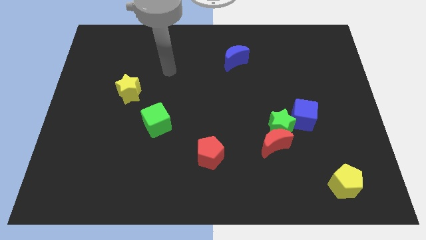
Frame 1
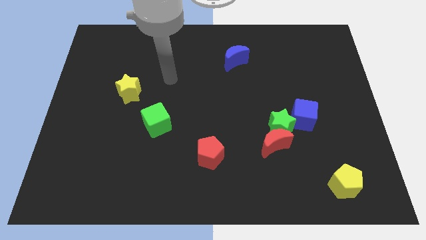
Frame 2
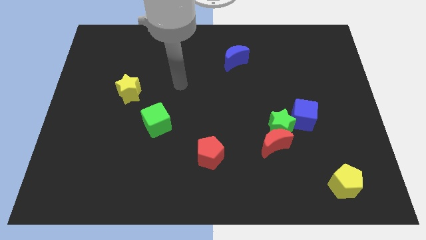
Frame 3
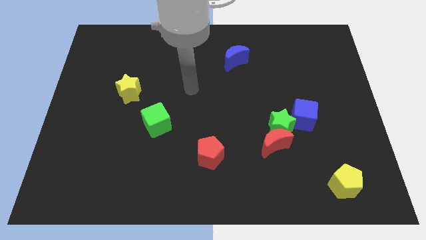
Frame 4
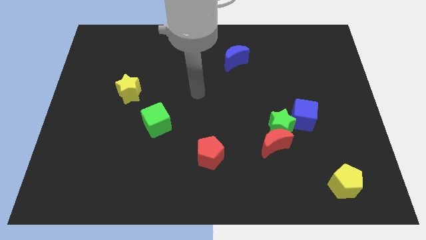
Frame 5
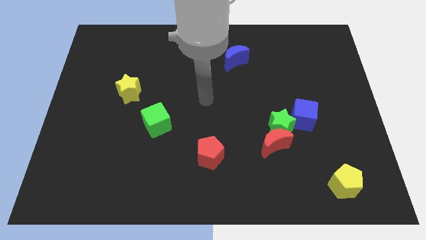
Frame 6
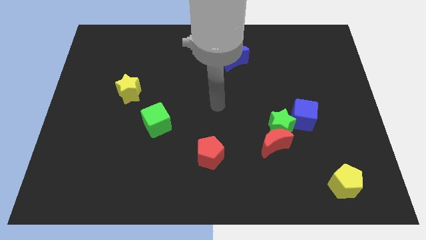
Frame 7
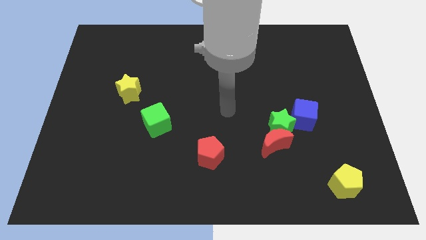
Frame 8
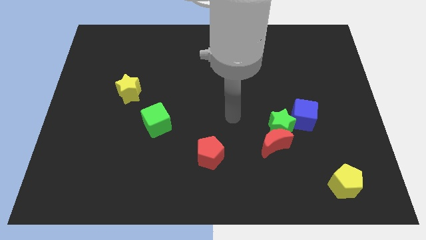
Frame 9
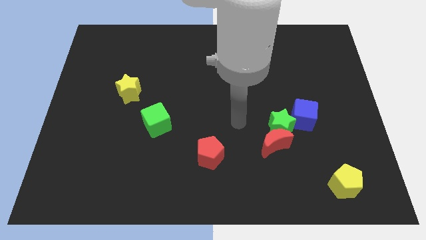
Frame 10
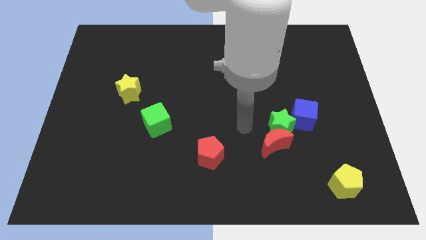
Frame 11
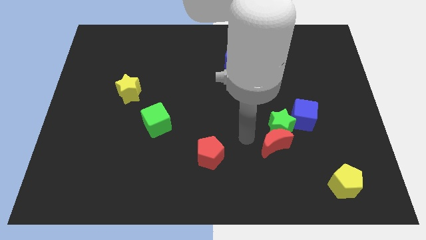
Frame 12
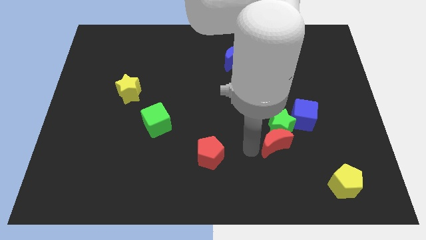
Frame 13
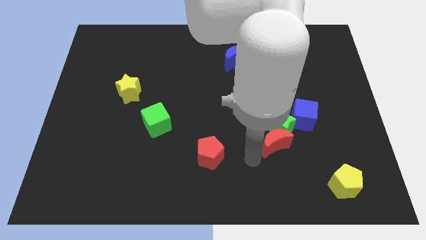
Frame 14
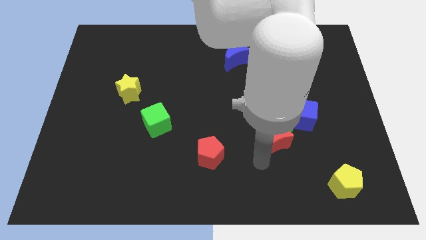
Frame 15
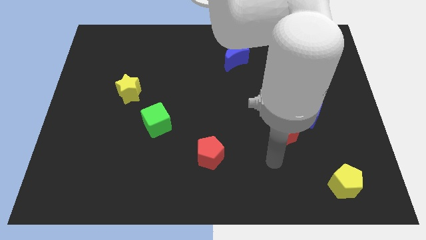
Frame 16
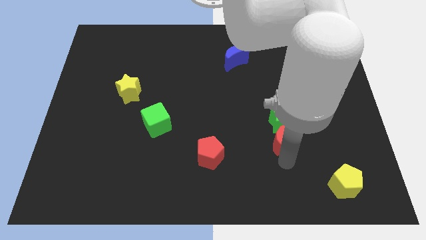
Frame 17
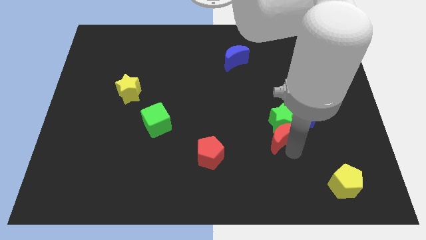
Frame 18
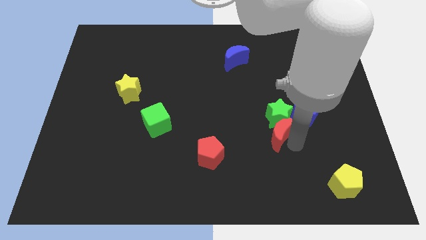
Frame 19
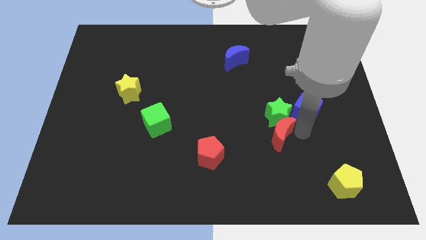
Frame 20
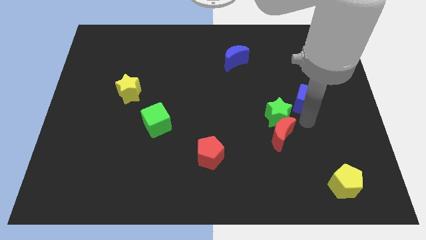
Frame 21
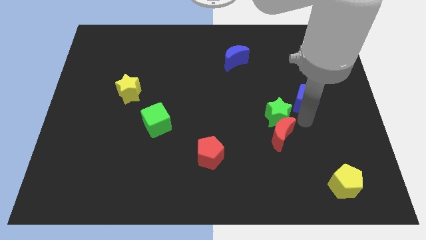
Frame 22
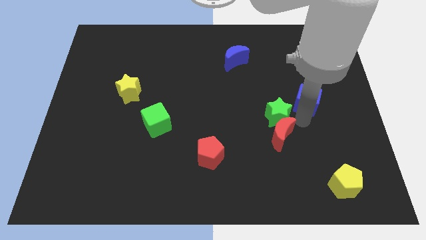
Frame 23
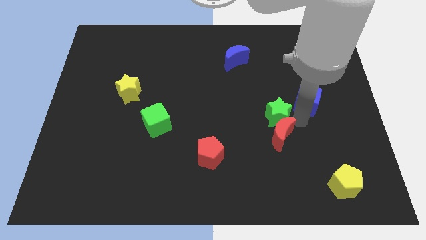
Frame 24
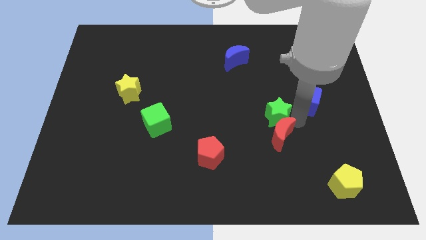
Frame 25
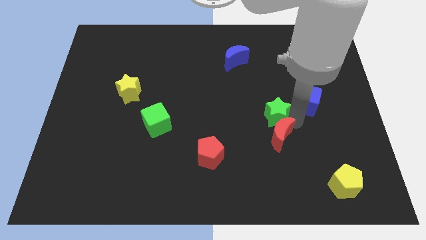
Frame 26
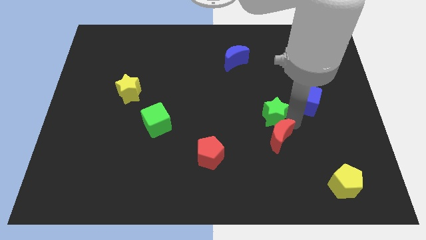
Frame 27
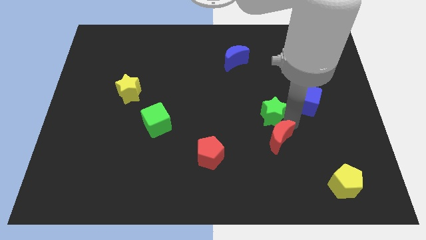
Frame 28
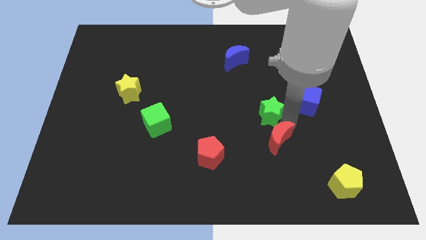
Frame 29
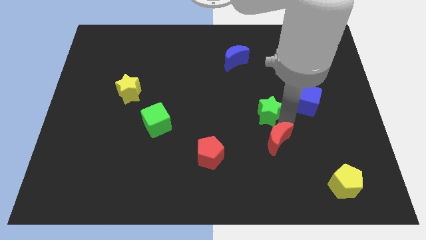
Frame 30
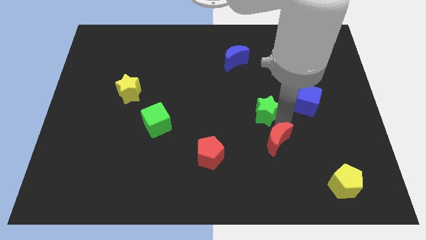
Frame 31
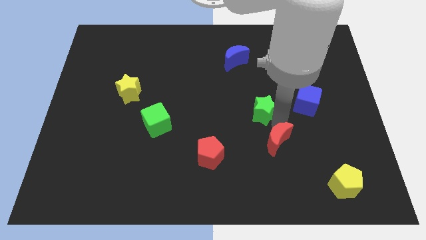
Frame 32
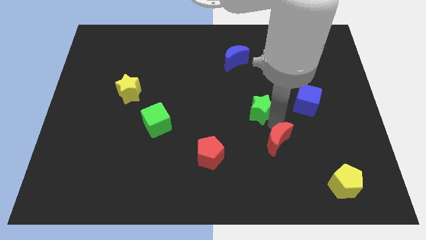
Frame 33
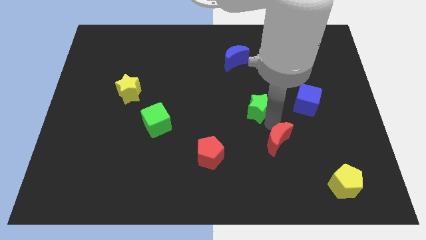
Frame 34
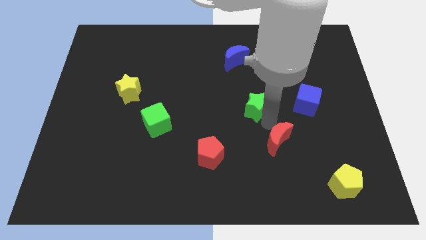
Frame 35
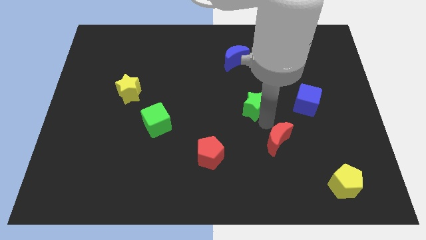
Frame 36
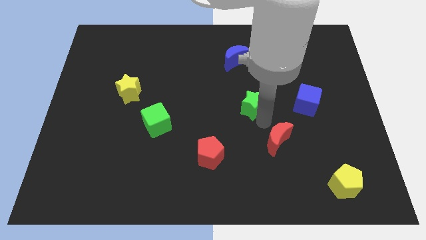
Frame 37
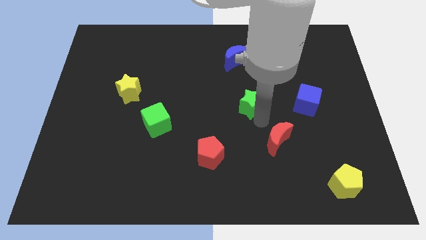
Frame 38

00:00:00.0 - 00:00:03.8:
separate the green star from the red moon and blue cube

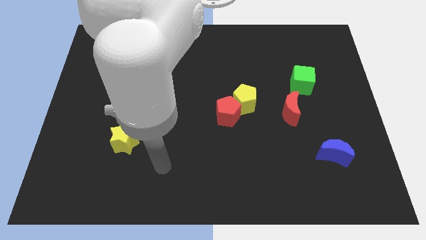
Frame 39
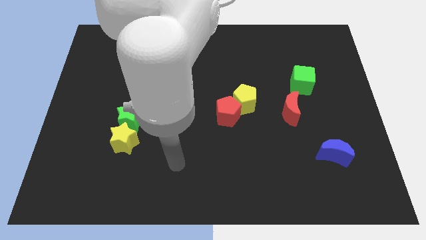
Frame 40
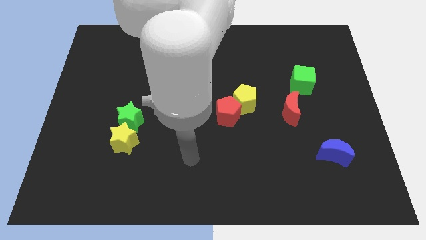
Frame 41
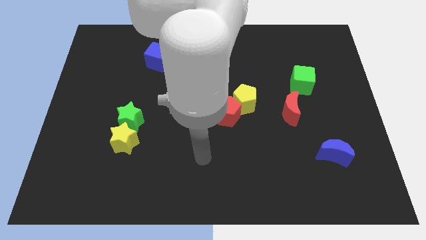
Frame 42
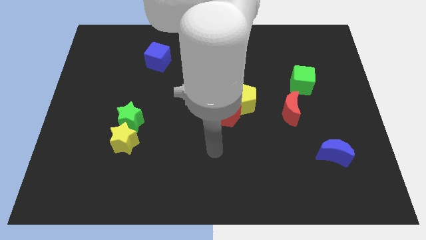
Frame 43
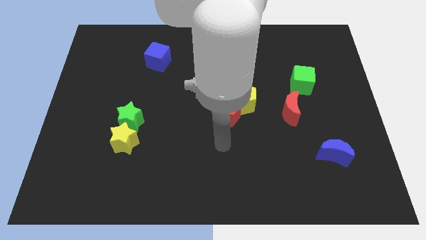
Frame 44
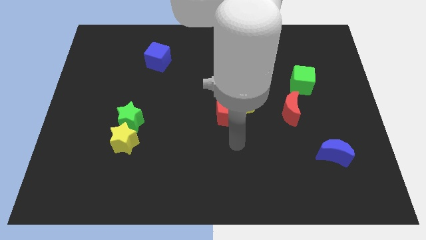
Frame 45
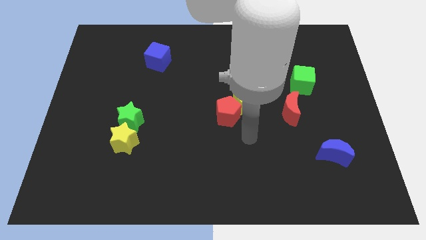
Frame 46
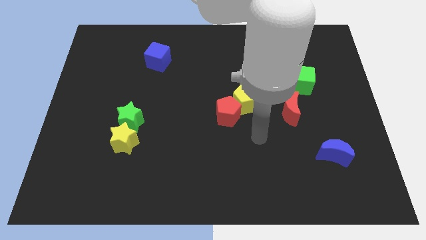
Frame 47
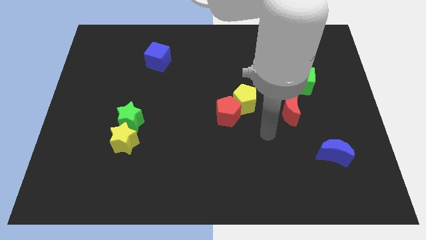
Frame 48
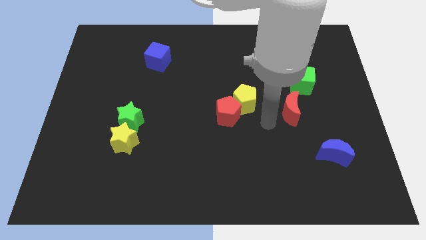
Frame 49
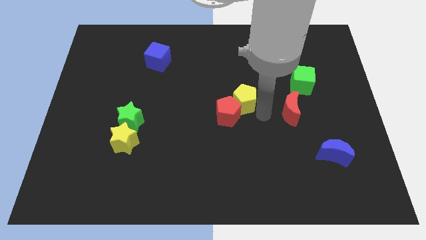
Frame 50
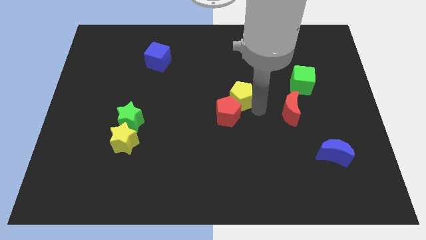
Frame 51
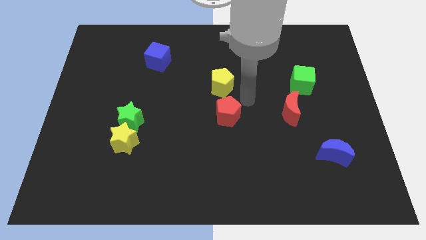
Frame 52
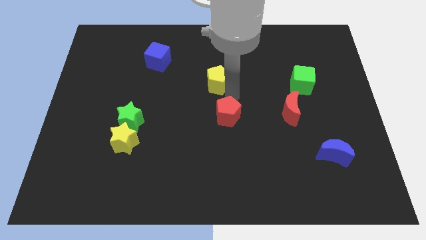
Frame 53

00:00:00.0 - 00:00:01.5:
move the red pentagon away from the yellow pentagon

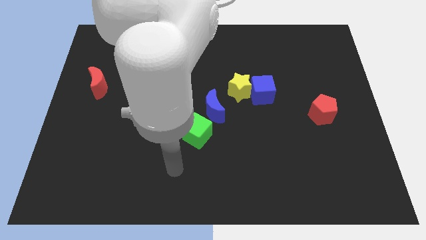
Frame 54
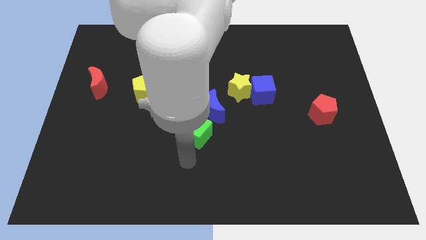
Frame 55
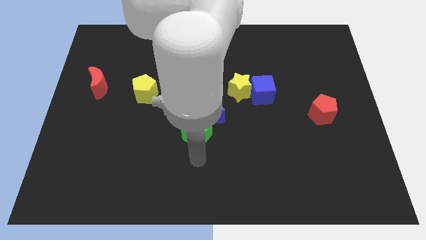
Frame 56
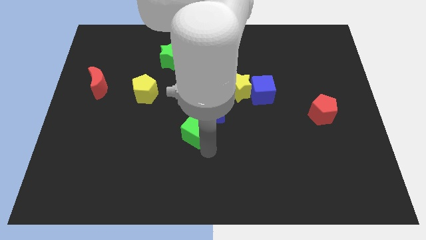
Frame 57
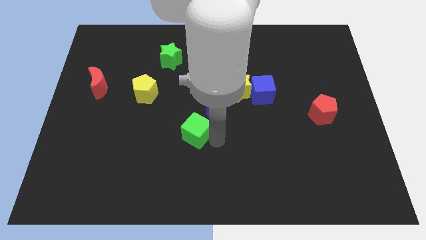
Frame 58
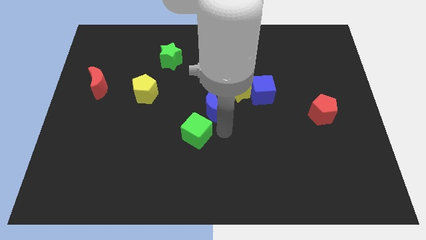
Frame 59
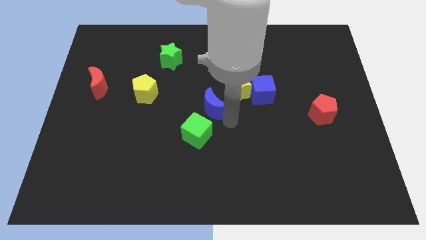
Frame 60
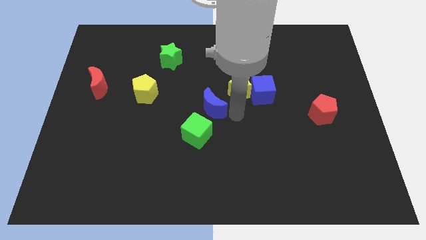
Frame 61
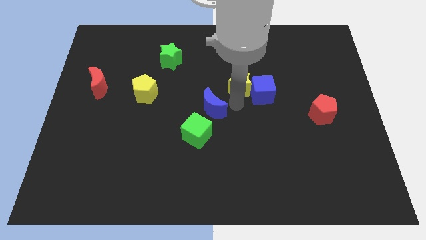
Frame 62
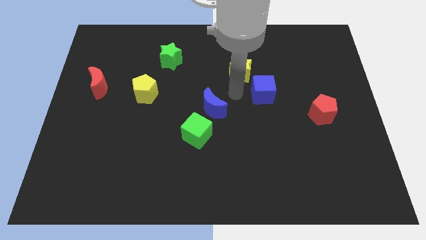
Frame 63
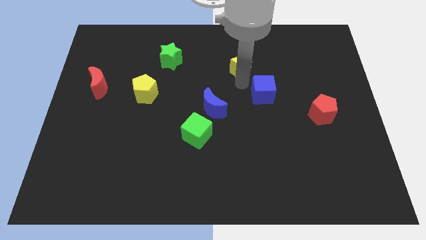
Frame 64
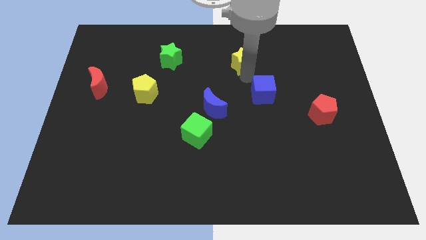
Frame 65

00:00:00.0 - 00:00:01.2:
separate the blue cube from the yellow star

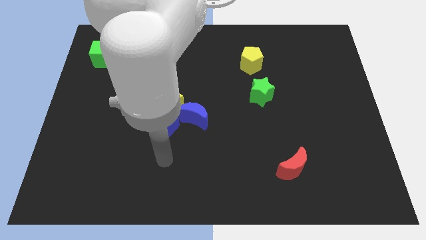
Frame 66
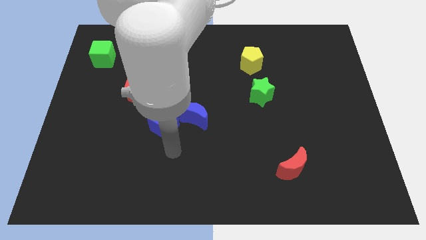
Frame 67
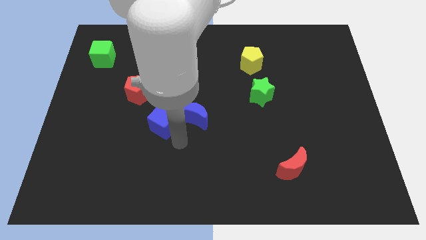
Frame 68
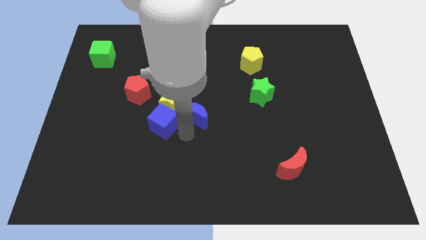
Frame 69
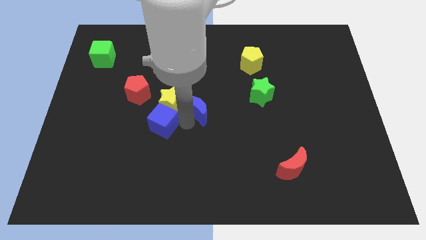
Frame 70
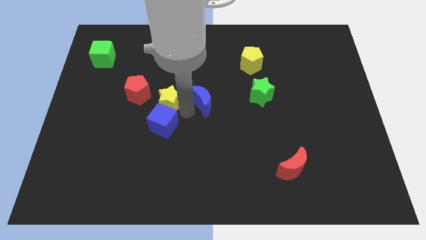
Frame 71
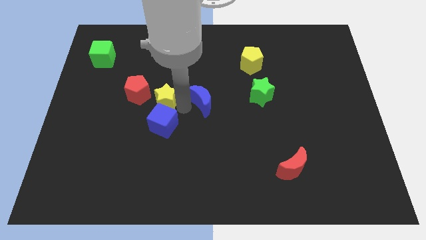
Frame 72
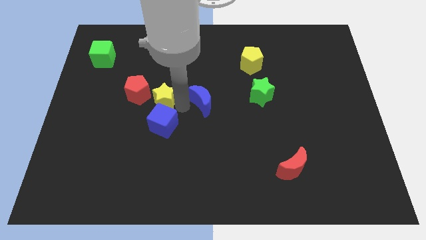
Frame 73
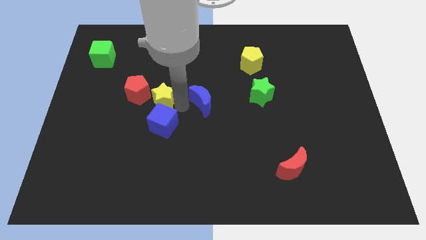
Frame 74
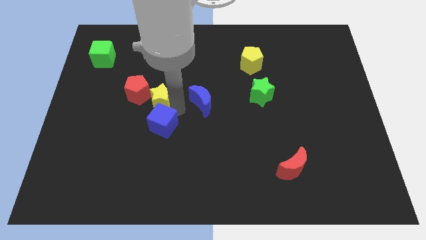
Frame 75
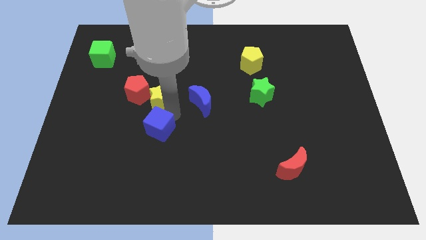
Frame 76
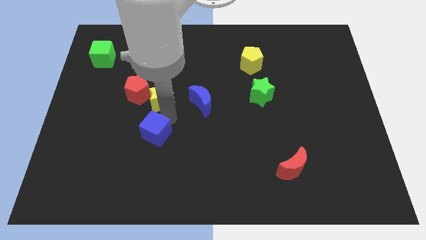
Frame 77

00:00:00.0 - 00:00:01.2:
move the blue cube away from the yellow star and blue moon

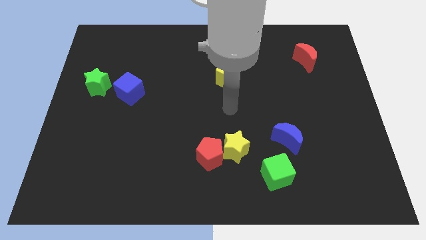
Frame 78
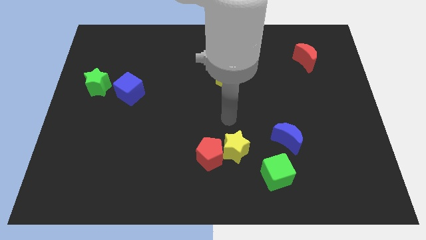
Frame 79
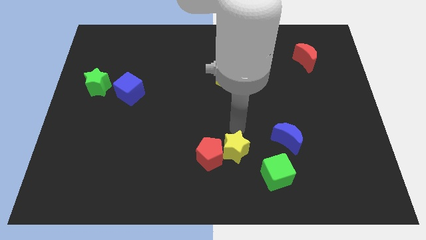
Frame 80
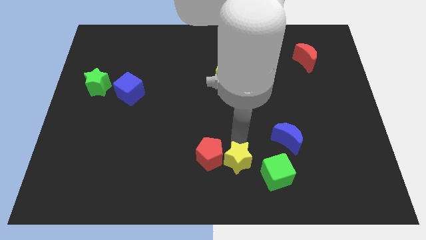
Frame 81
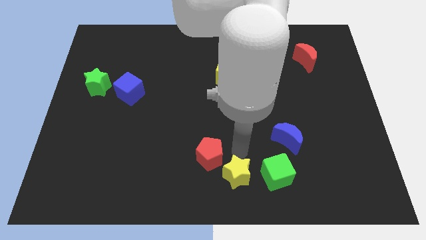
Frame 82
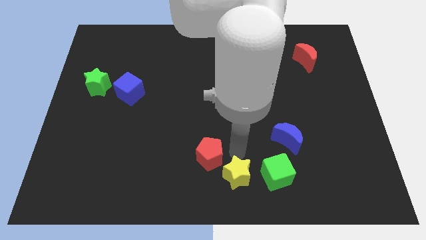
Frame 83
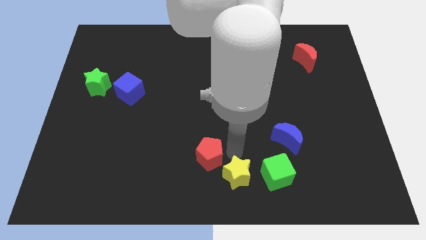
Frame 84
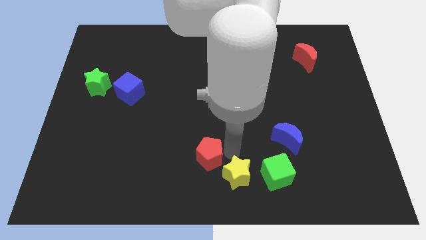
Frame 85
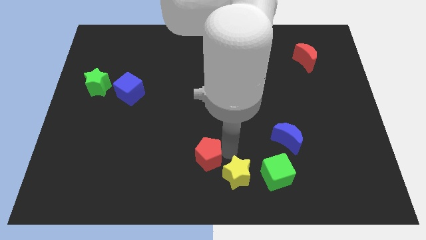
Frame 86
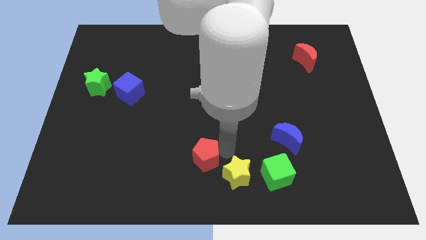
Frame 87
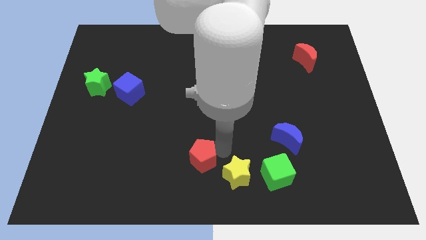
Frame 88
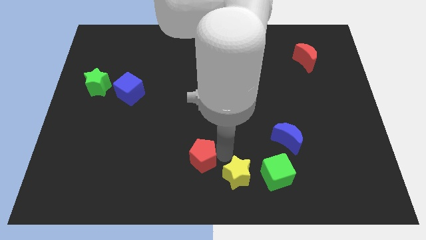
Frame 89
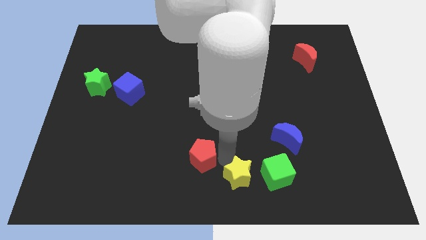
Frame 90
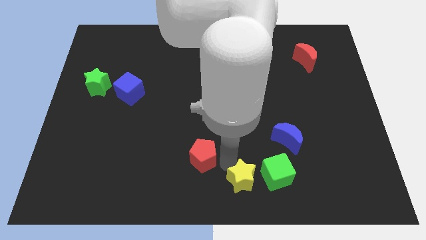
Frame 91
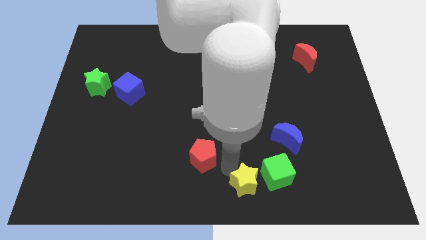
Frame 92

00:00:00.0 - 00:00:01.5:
move the red pentagon away from the yellow star
